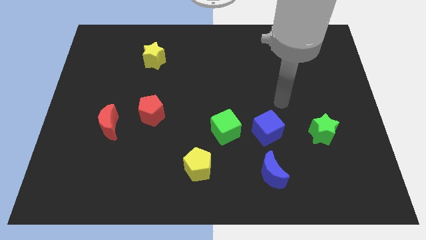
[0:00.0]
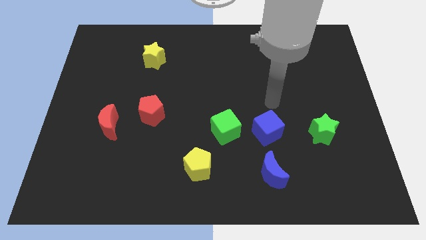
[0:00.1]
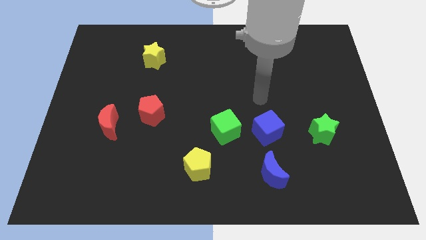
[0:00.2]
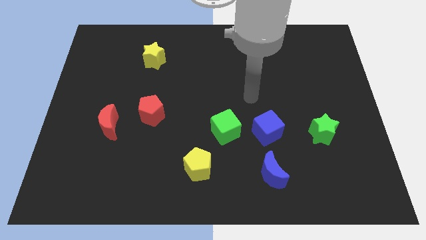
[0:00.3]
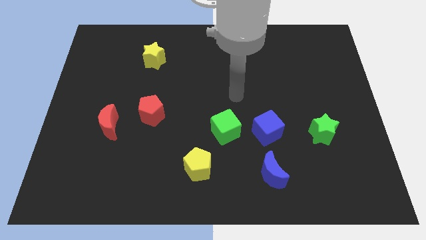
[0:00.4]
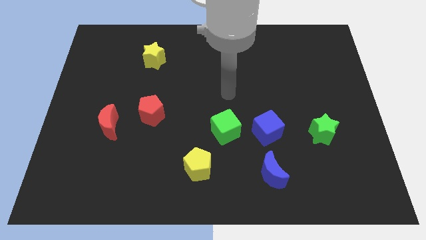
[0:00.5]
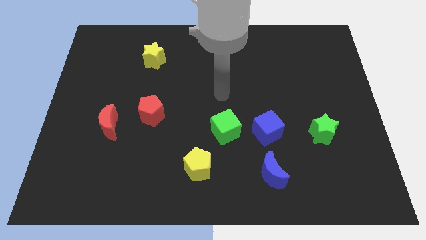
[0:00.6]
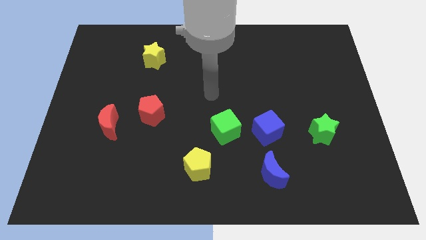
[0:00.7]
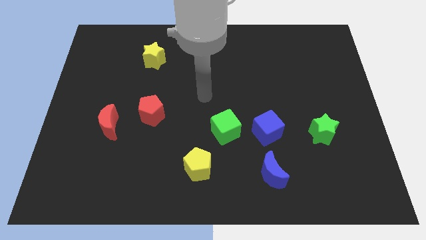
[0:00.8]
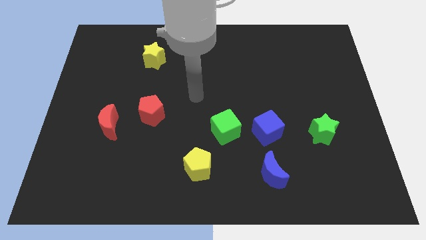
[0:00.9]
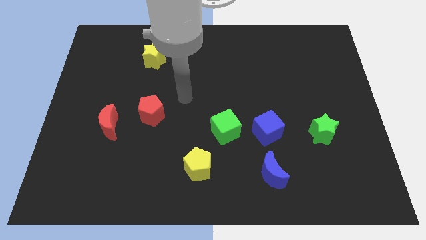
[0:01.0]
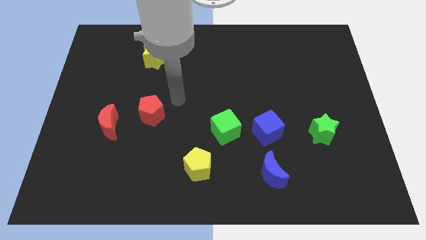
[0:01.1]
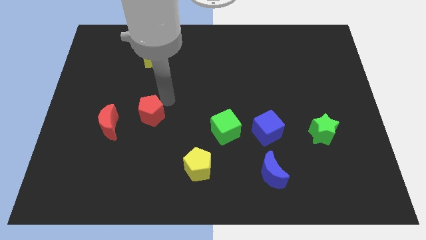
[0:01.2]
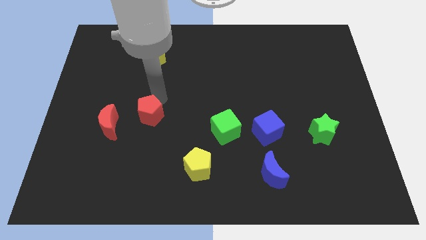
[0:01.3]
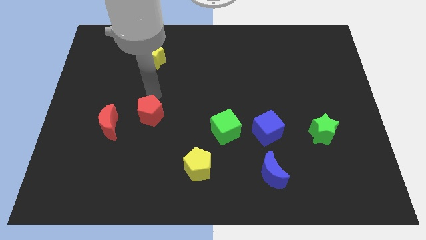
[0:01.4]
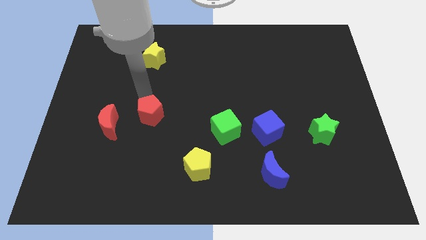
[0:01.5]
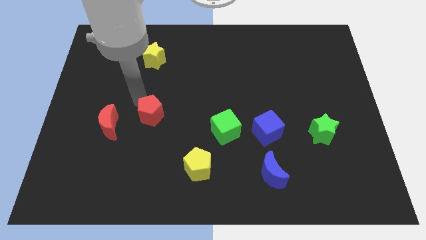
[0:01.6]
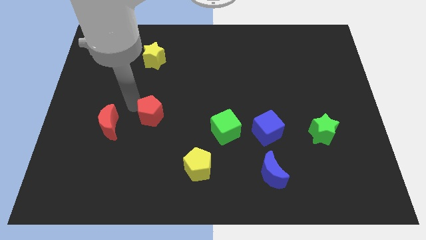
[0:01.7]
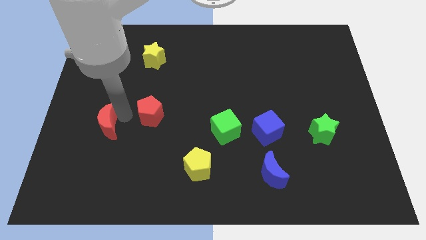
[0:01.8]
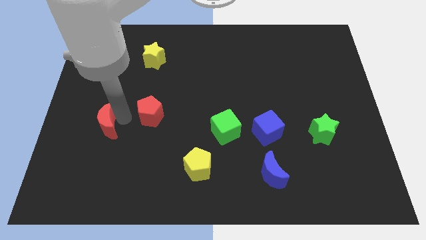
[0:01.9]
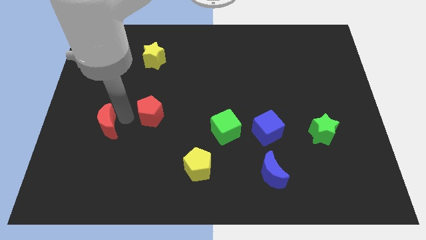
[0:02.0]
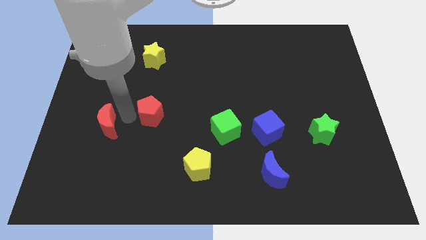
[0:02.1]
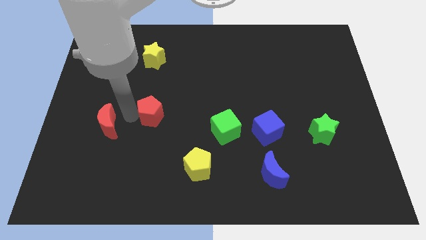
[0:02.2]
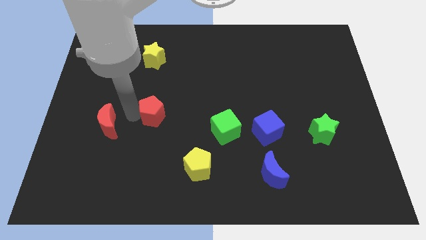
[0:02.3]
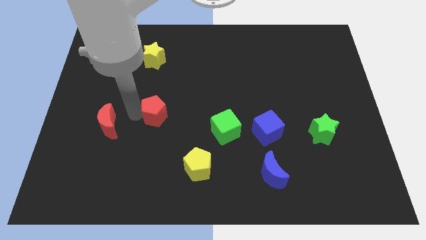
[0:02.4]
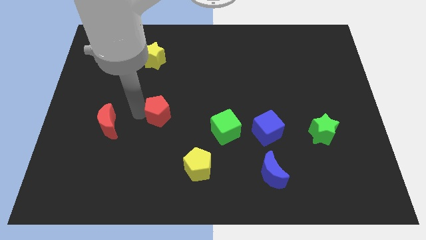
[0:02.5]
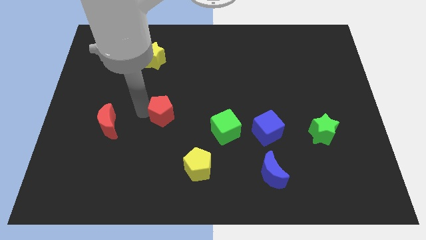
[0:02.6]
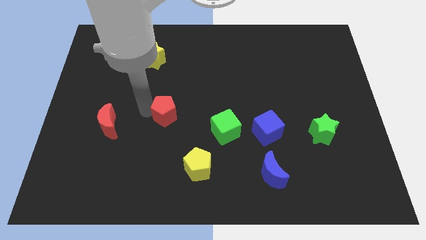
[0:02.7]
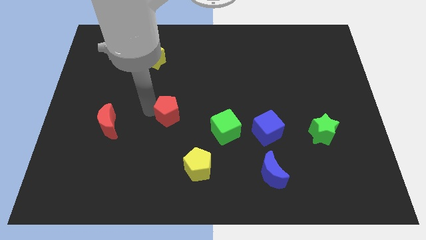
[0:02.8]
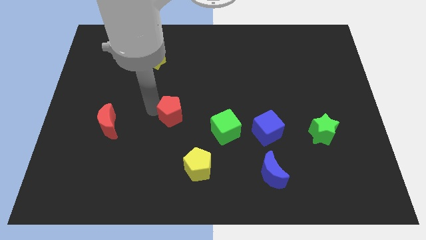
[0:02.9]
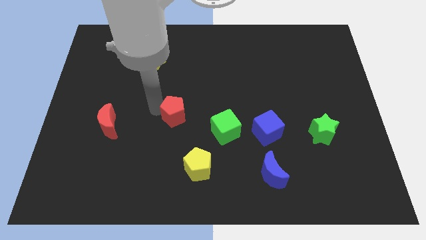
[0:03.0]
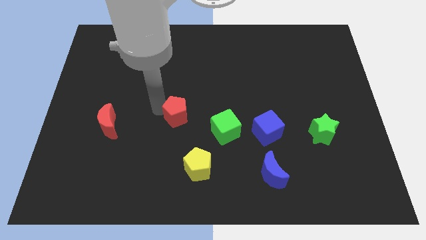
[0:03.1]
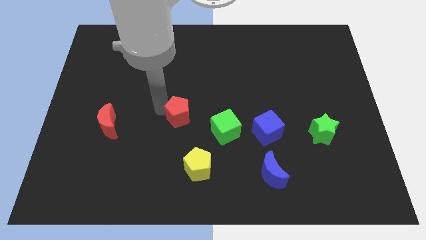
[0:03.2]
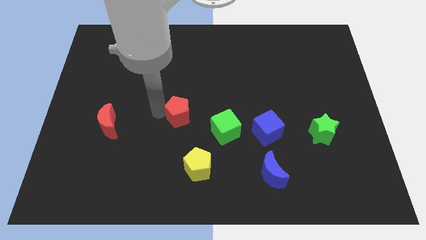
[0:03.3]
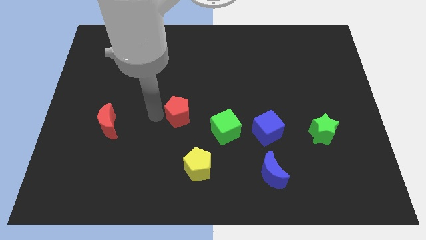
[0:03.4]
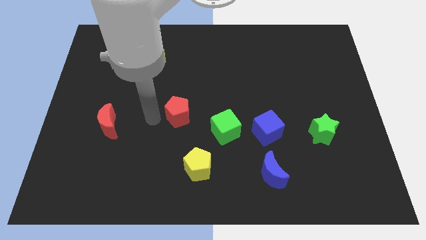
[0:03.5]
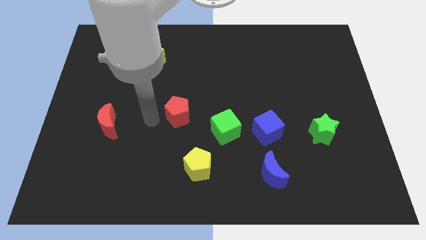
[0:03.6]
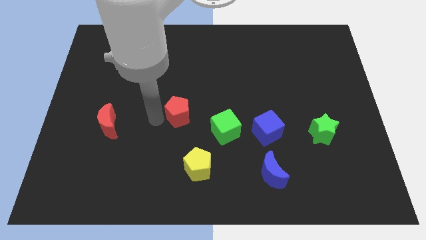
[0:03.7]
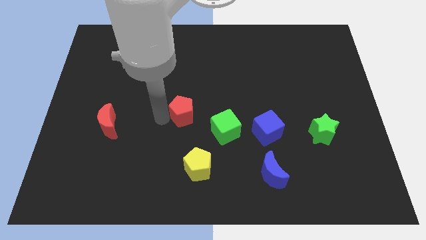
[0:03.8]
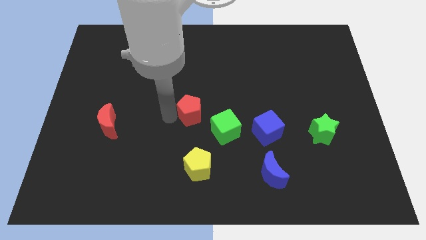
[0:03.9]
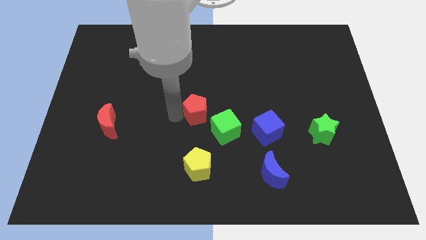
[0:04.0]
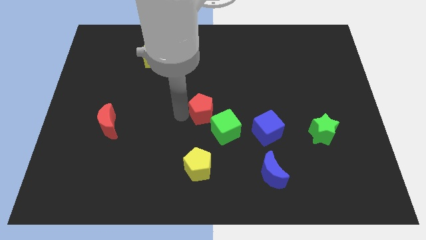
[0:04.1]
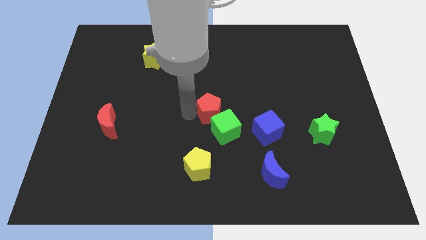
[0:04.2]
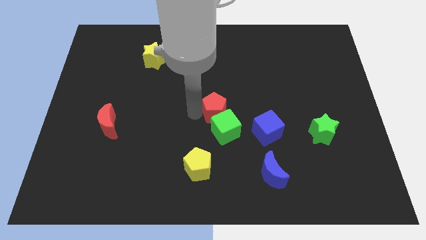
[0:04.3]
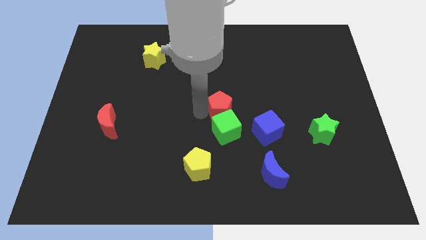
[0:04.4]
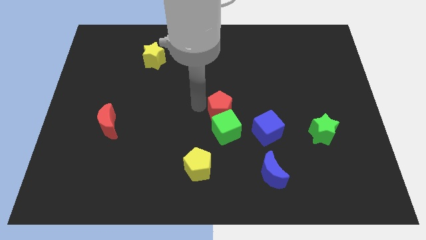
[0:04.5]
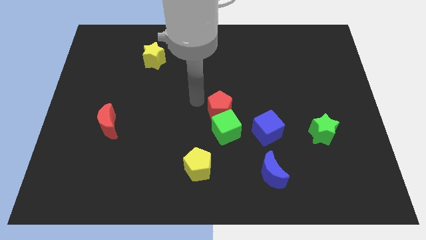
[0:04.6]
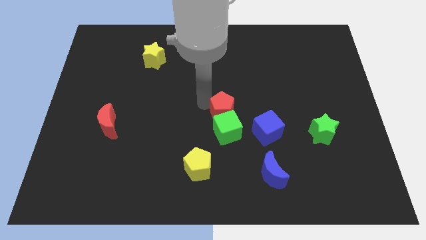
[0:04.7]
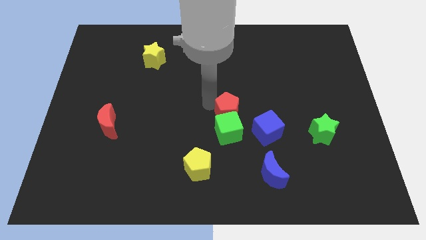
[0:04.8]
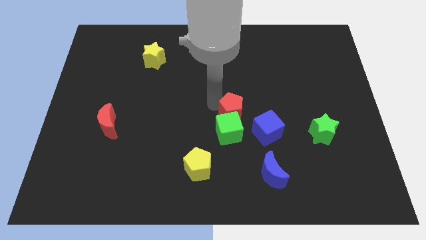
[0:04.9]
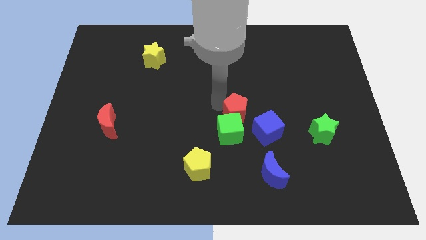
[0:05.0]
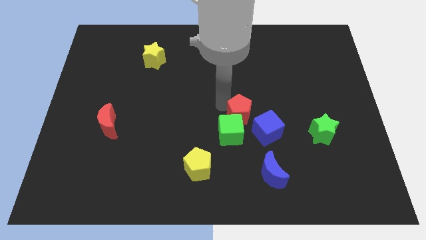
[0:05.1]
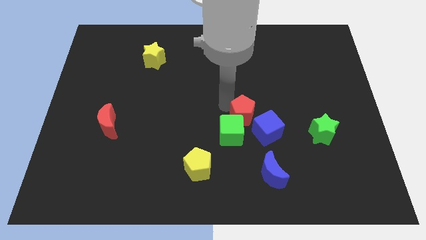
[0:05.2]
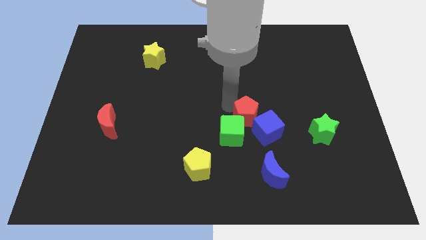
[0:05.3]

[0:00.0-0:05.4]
put the red pentagon next to the blue cube

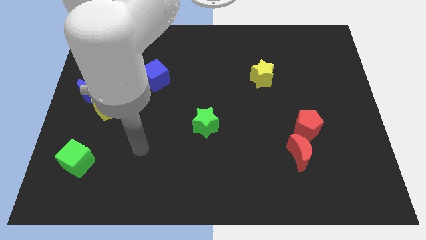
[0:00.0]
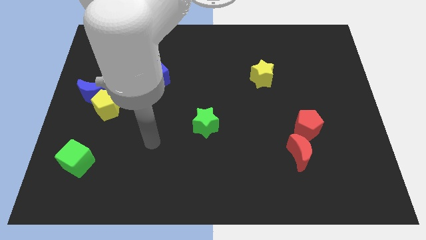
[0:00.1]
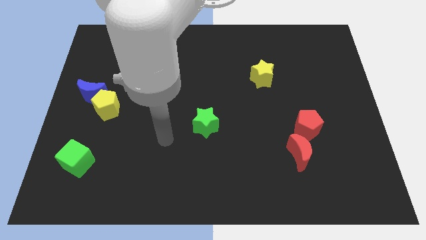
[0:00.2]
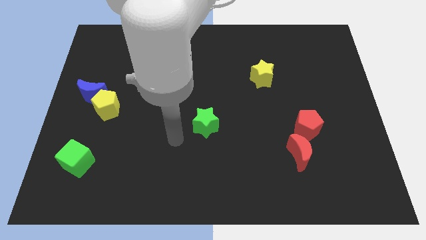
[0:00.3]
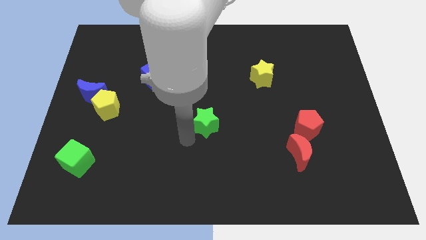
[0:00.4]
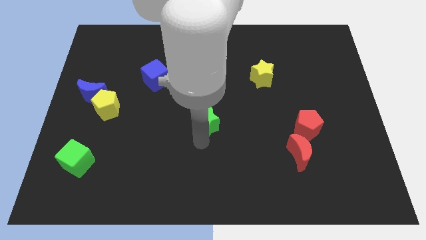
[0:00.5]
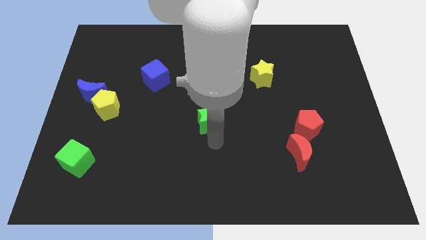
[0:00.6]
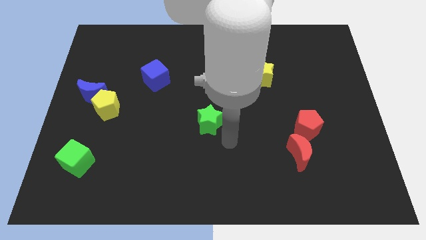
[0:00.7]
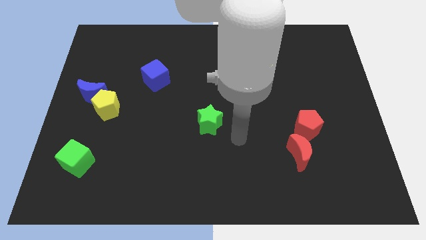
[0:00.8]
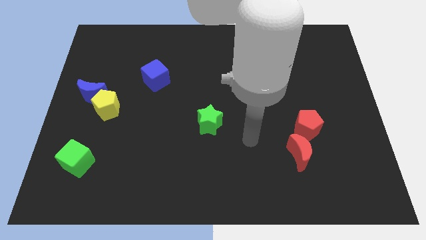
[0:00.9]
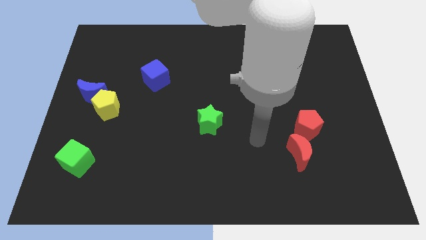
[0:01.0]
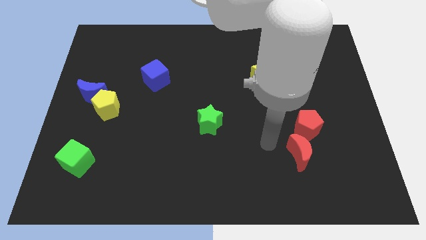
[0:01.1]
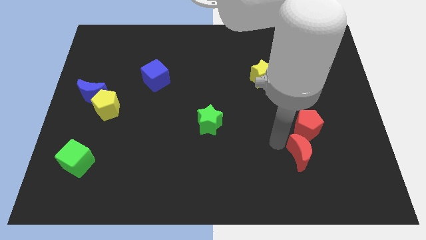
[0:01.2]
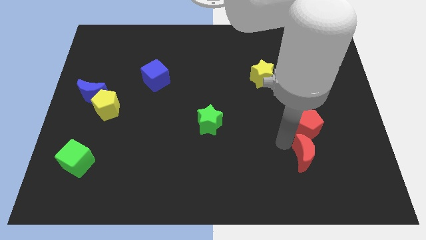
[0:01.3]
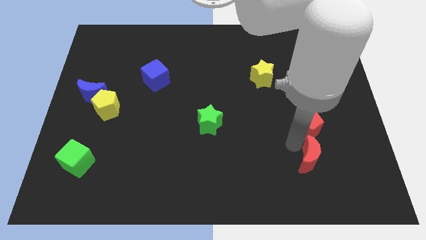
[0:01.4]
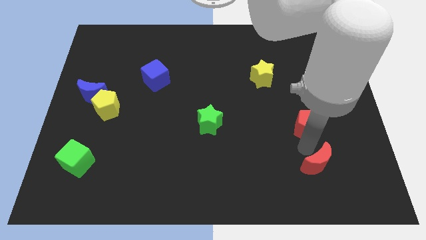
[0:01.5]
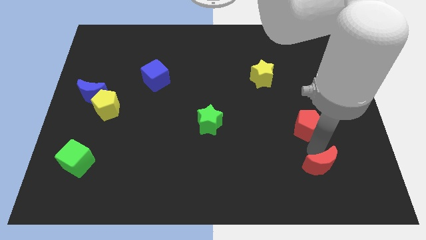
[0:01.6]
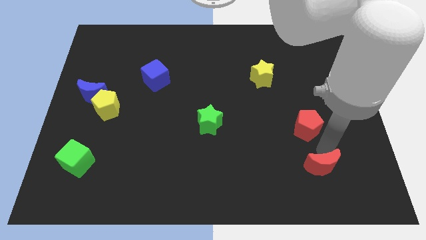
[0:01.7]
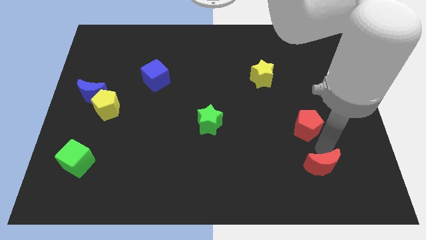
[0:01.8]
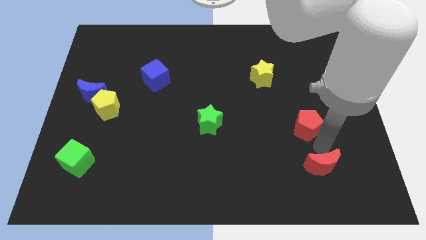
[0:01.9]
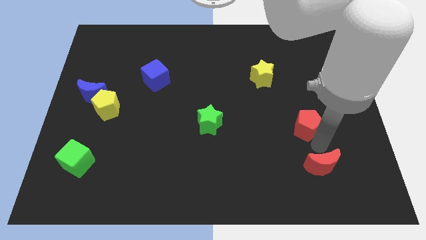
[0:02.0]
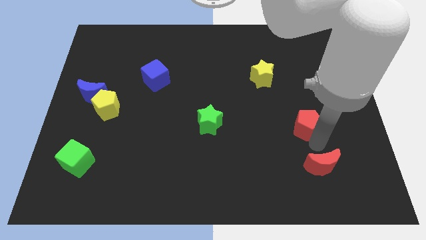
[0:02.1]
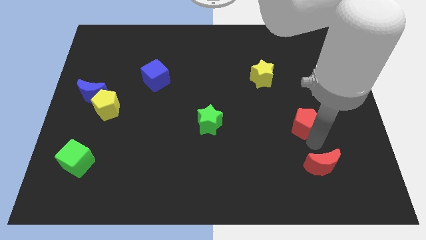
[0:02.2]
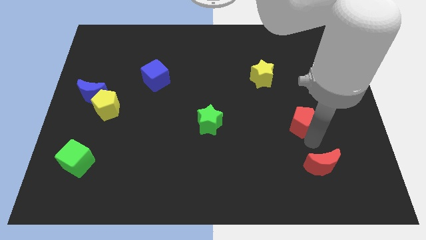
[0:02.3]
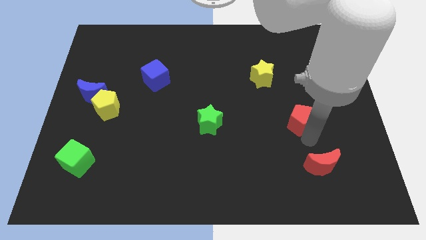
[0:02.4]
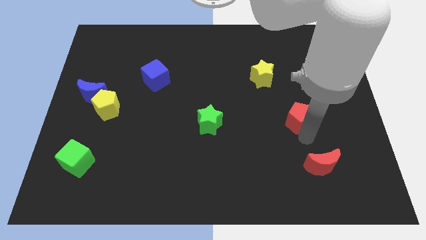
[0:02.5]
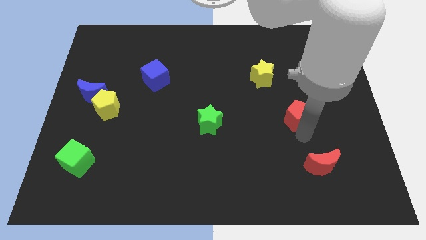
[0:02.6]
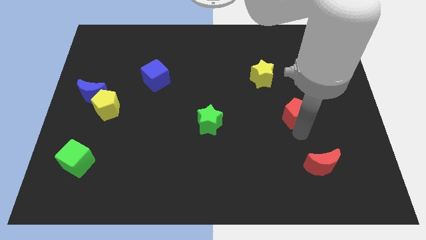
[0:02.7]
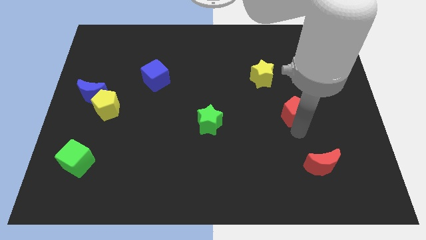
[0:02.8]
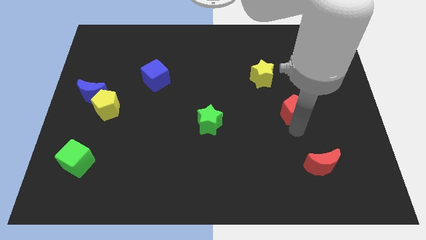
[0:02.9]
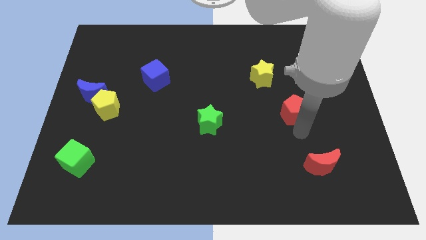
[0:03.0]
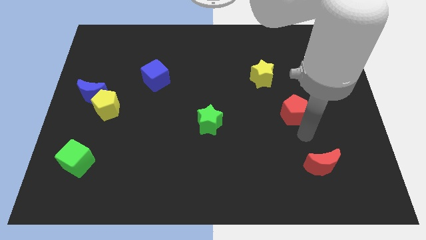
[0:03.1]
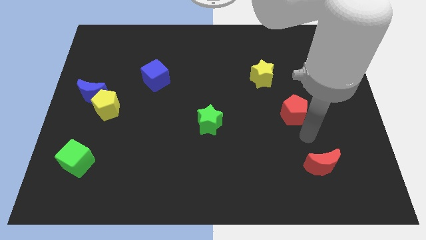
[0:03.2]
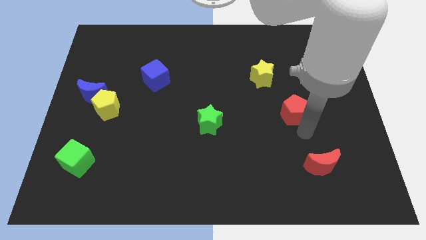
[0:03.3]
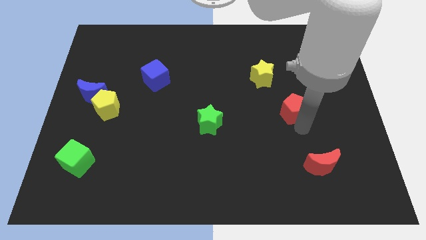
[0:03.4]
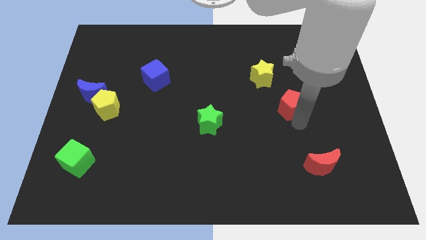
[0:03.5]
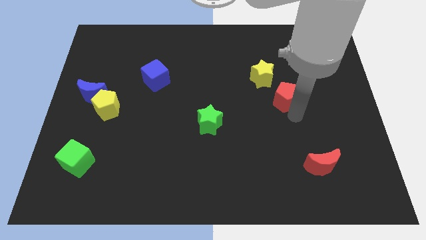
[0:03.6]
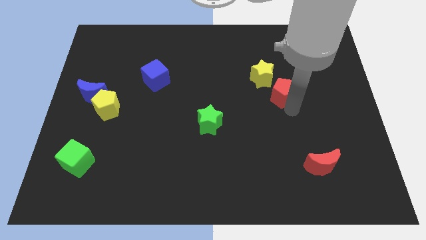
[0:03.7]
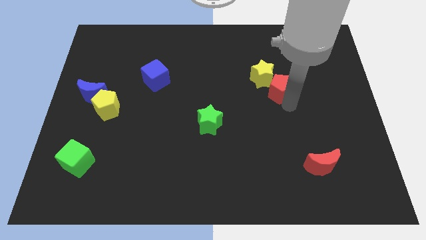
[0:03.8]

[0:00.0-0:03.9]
move the red pentagon close to the yellow star
